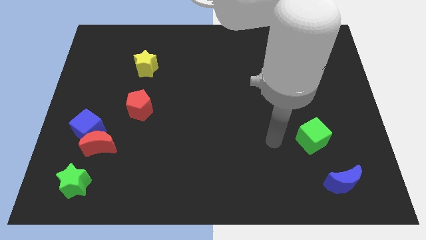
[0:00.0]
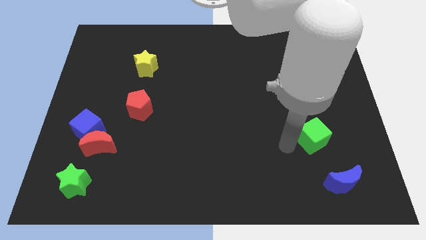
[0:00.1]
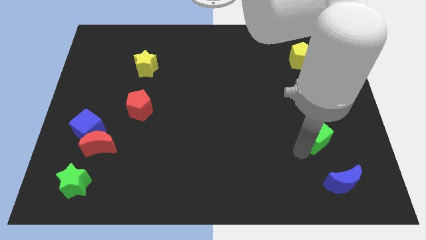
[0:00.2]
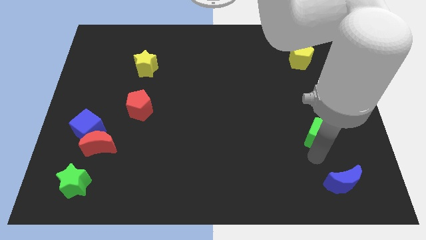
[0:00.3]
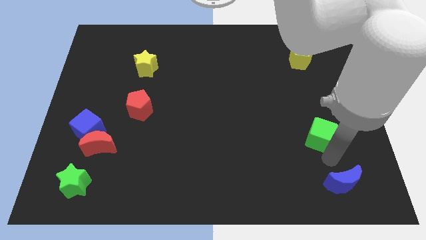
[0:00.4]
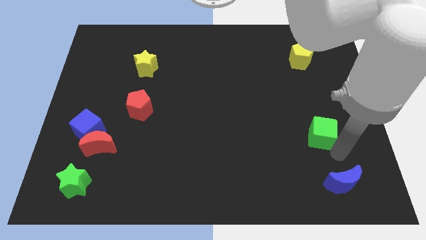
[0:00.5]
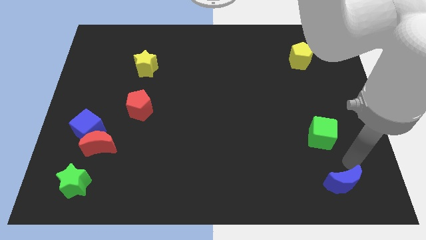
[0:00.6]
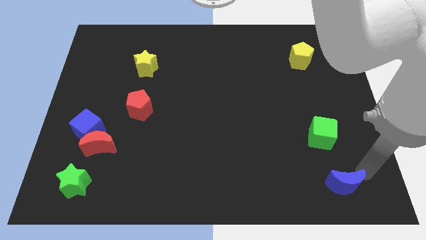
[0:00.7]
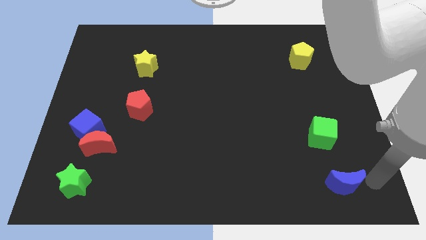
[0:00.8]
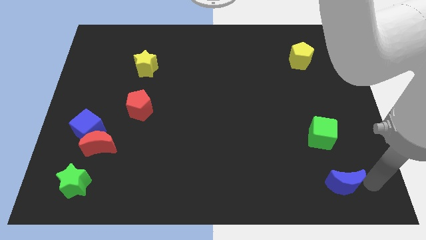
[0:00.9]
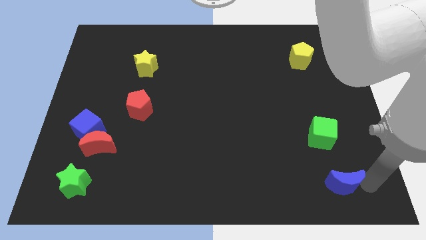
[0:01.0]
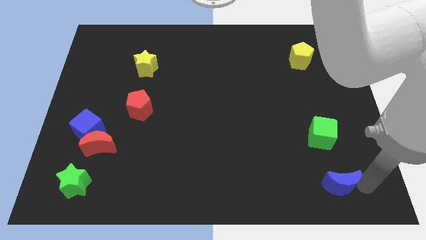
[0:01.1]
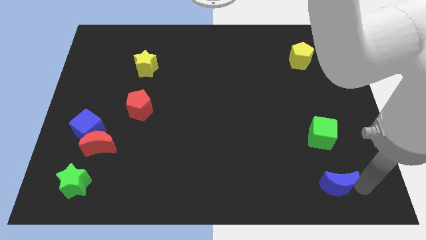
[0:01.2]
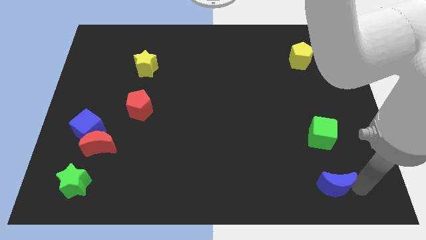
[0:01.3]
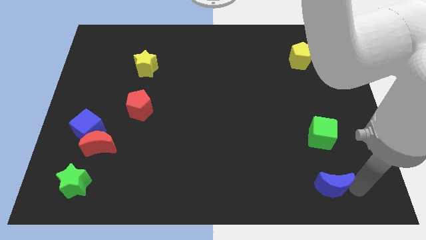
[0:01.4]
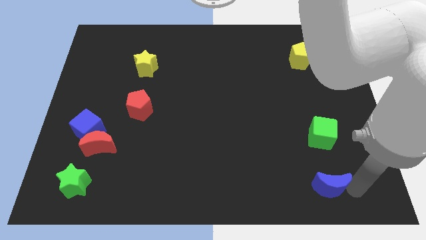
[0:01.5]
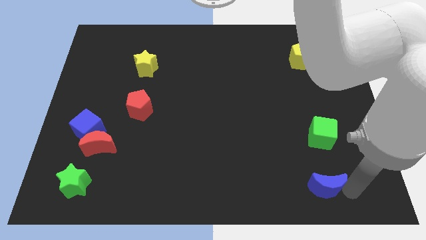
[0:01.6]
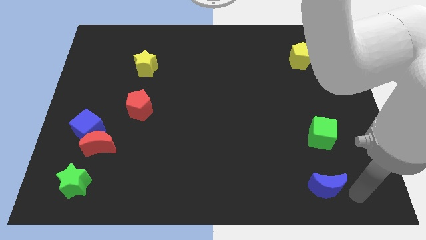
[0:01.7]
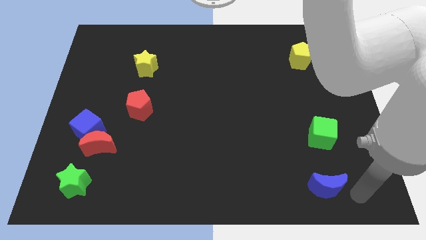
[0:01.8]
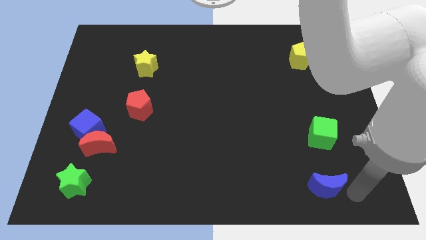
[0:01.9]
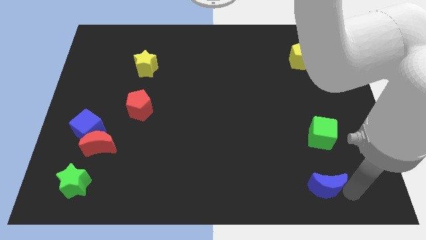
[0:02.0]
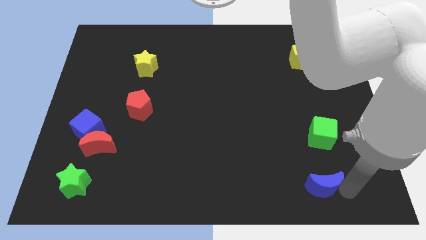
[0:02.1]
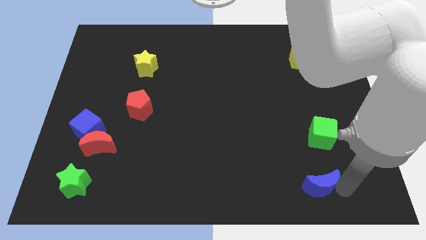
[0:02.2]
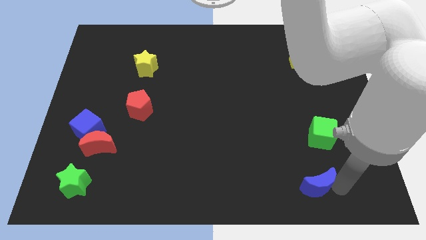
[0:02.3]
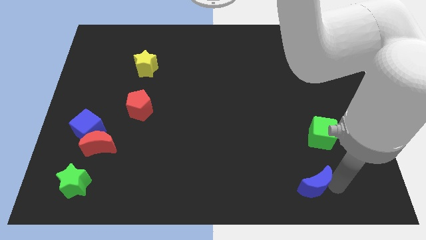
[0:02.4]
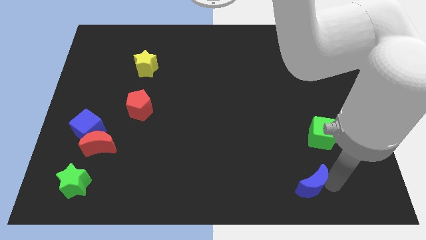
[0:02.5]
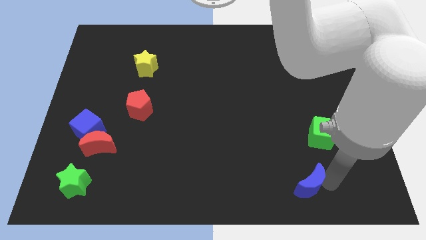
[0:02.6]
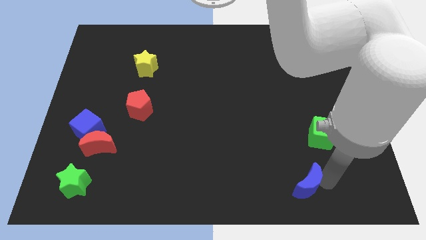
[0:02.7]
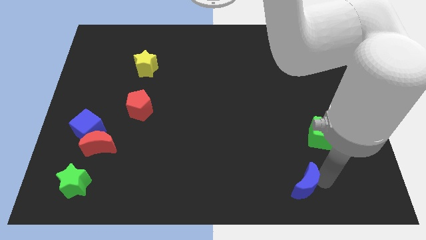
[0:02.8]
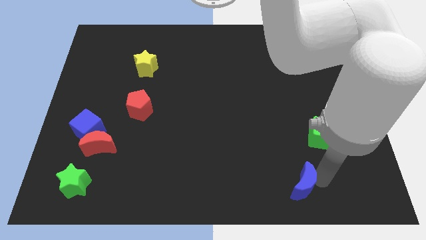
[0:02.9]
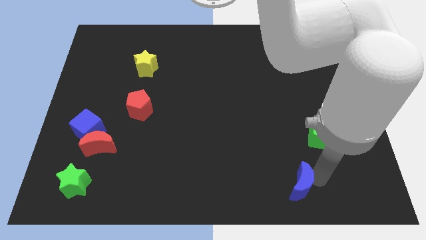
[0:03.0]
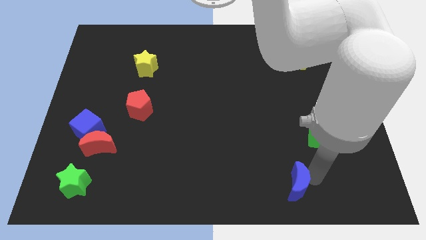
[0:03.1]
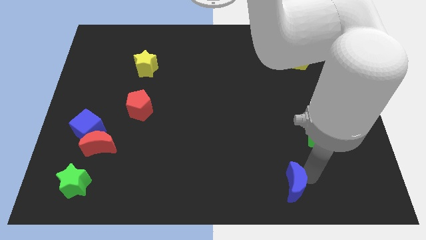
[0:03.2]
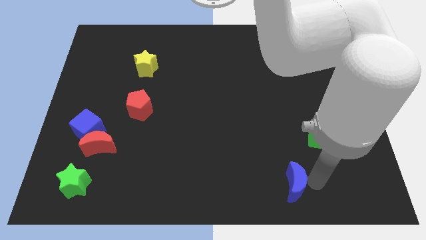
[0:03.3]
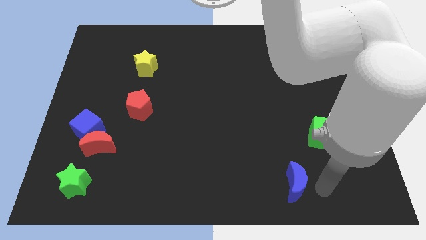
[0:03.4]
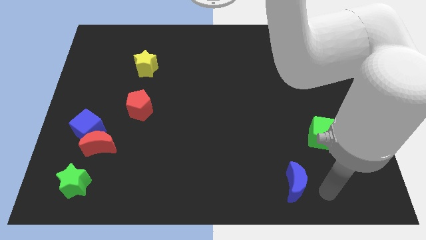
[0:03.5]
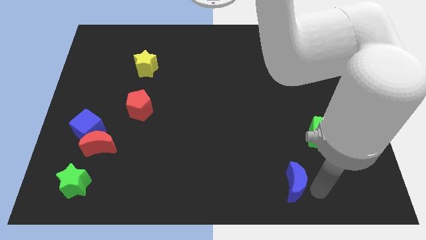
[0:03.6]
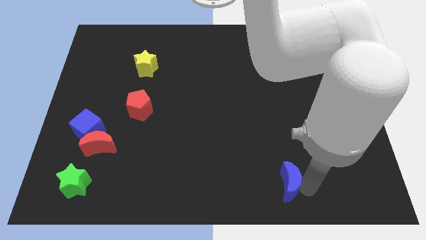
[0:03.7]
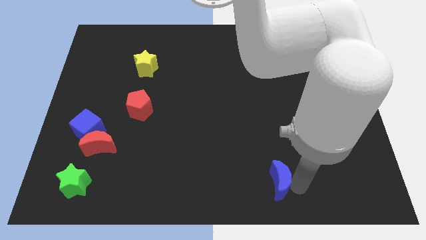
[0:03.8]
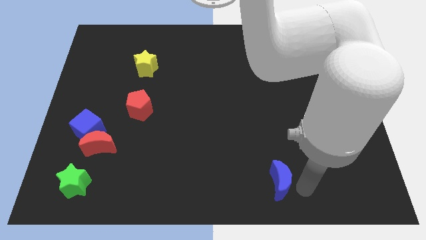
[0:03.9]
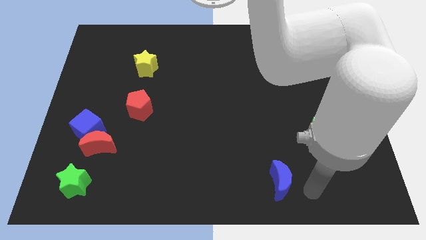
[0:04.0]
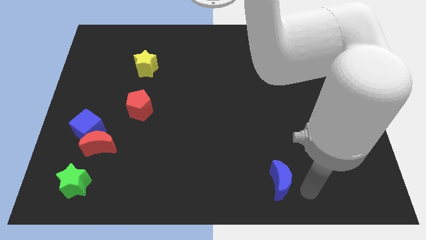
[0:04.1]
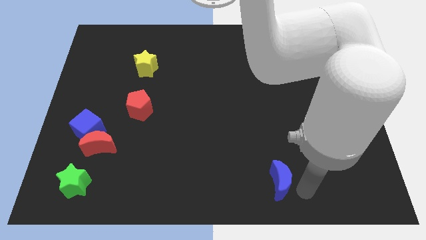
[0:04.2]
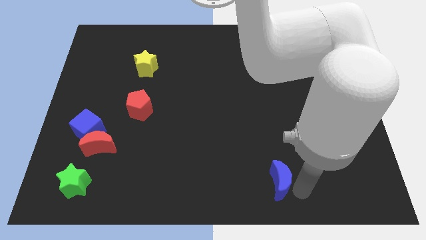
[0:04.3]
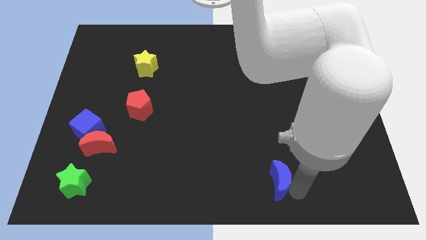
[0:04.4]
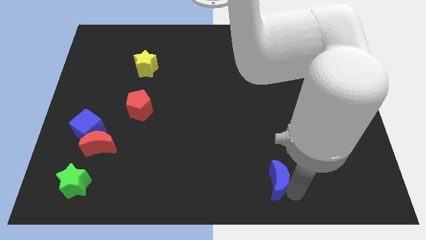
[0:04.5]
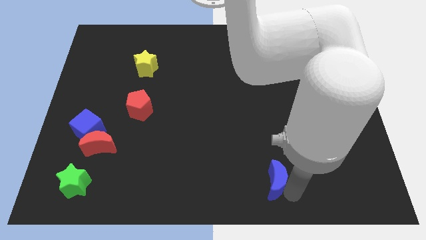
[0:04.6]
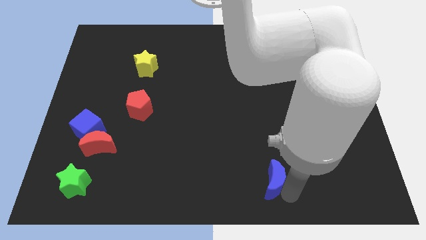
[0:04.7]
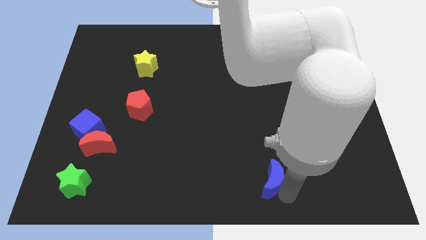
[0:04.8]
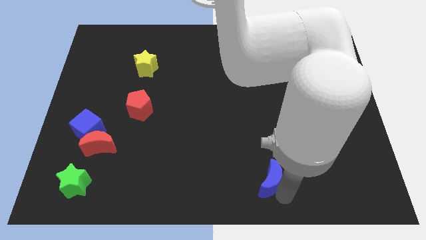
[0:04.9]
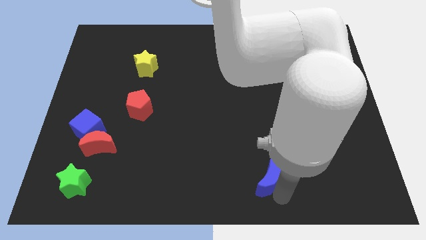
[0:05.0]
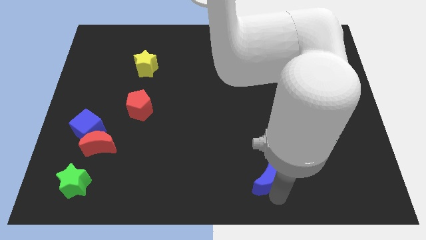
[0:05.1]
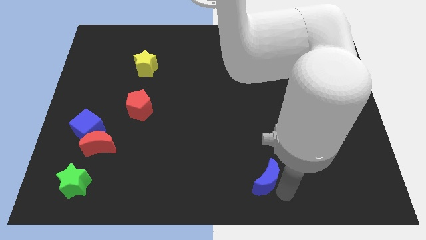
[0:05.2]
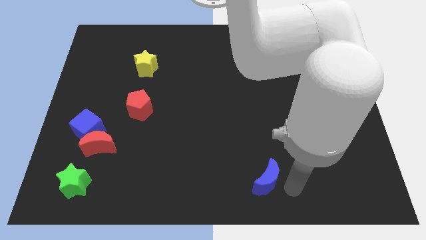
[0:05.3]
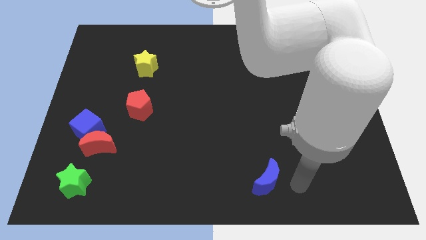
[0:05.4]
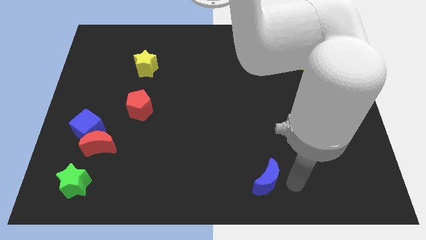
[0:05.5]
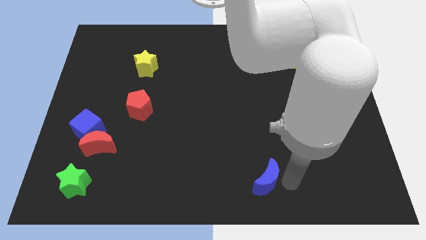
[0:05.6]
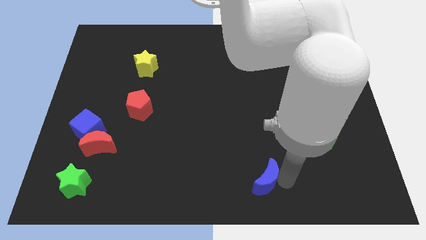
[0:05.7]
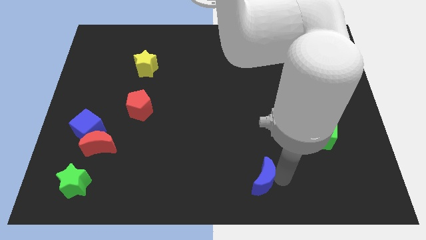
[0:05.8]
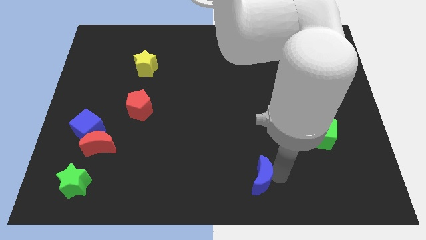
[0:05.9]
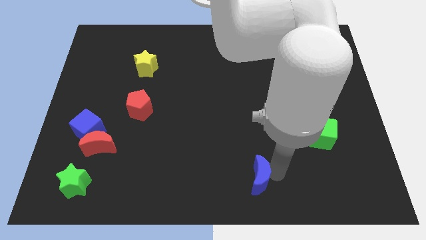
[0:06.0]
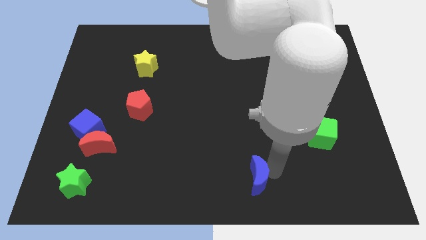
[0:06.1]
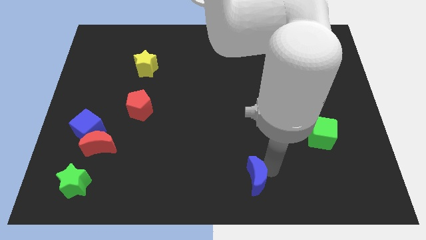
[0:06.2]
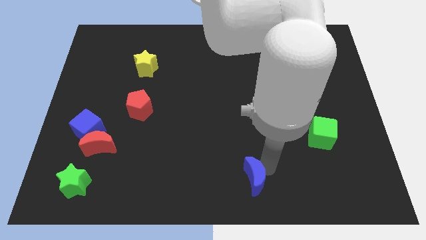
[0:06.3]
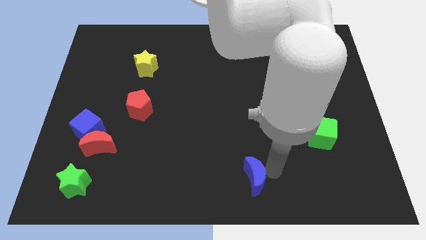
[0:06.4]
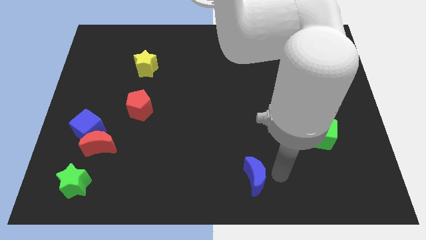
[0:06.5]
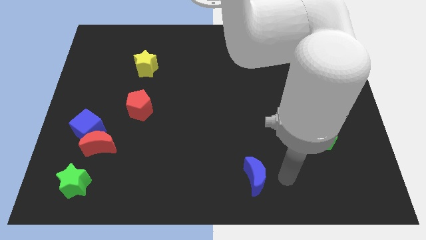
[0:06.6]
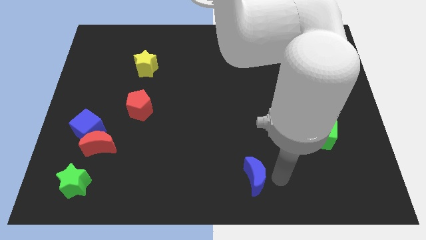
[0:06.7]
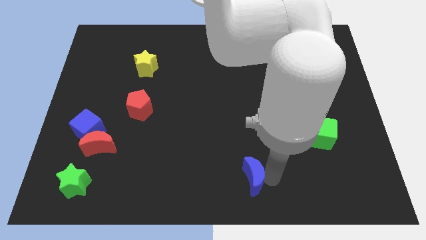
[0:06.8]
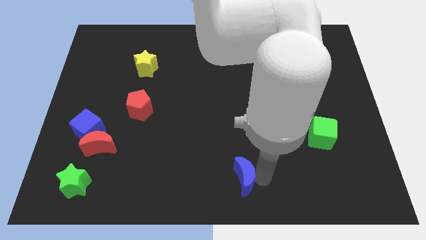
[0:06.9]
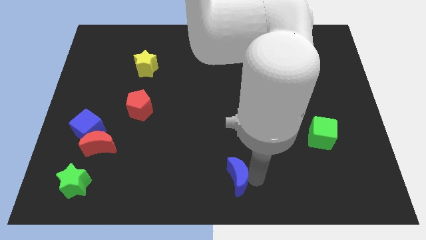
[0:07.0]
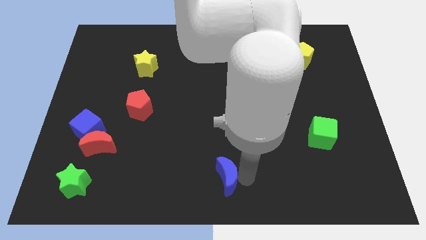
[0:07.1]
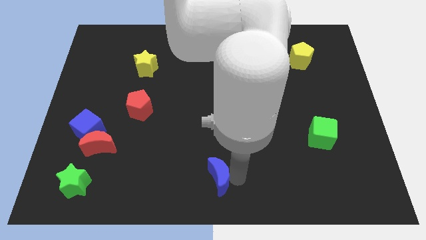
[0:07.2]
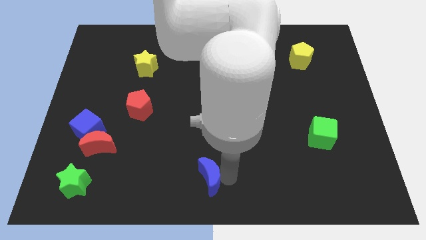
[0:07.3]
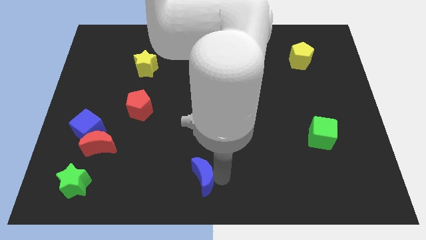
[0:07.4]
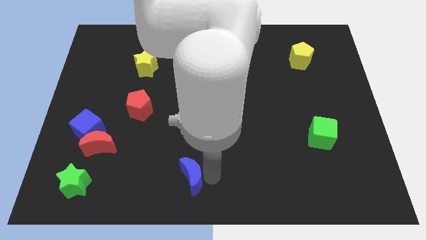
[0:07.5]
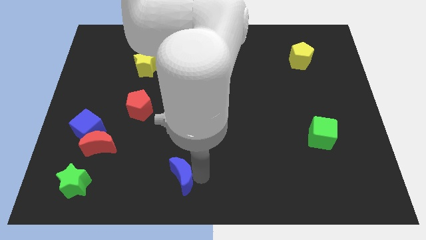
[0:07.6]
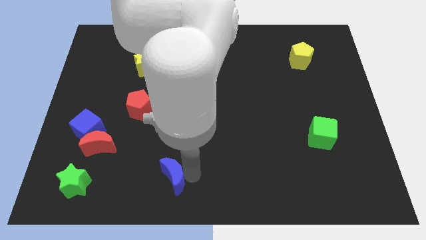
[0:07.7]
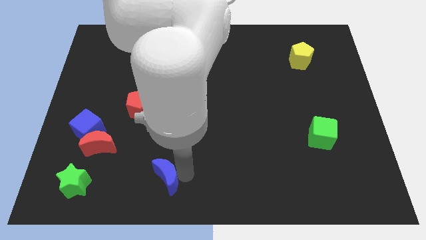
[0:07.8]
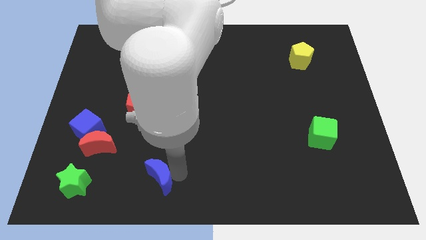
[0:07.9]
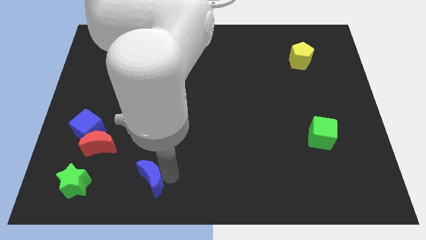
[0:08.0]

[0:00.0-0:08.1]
slide the blue moon just right of the green star
